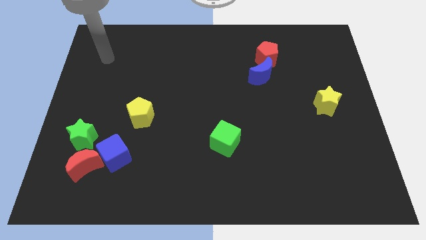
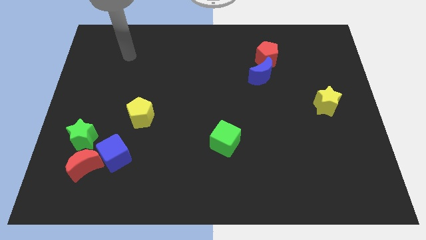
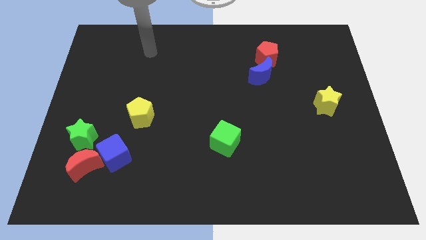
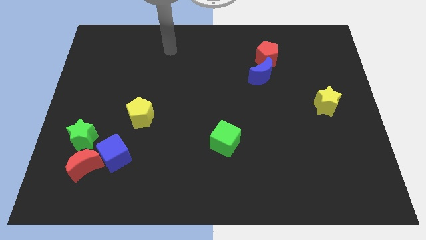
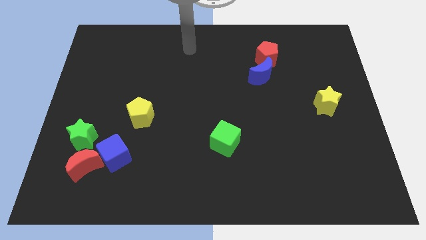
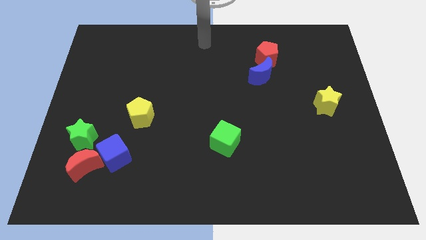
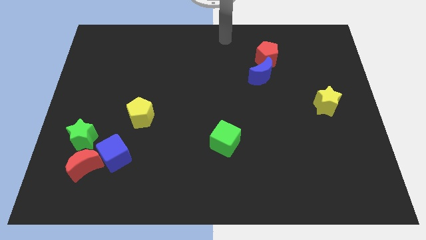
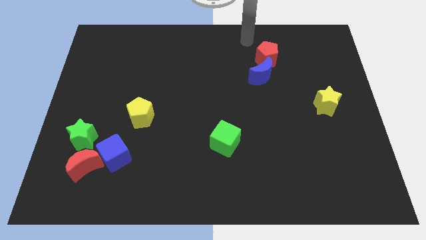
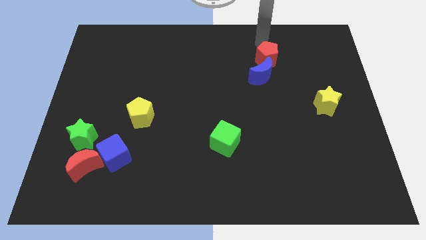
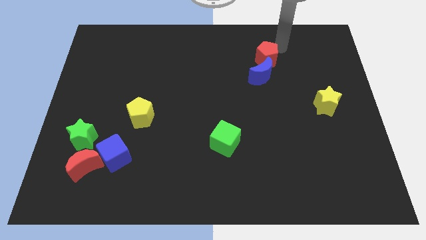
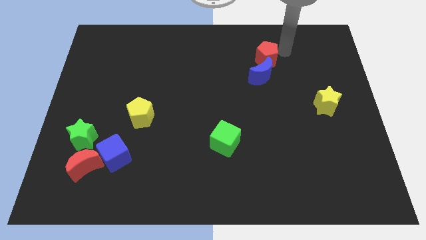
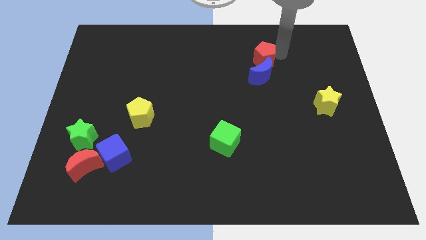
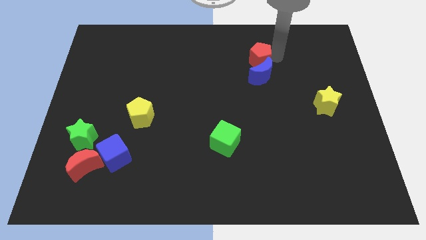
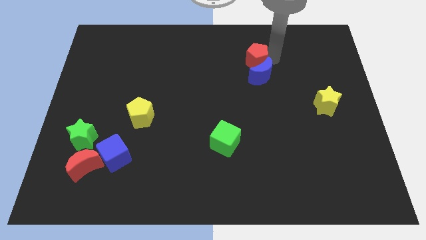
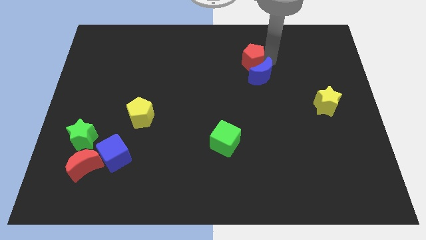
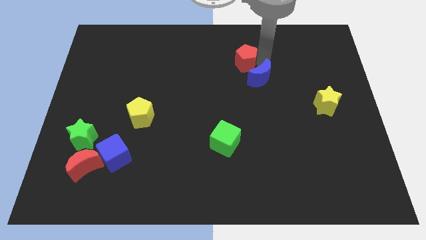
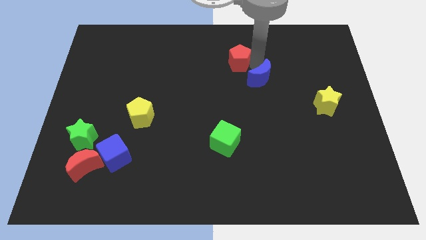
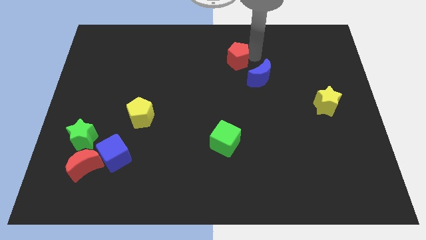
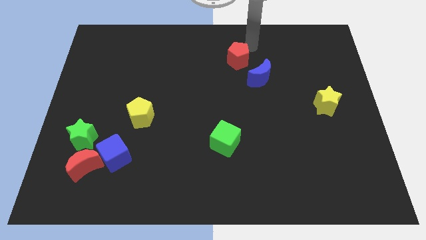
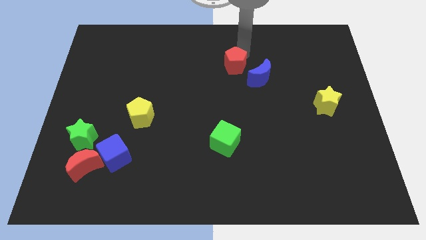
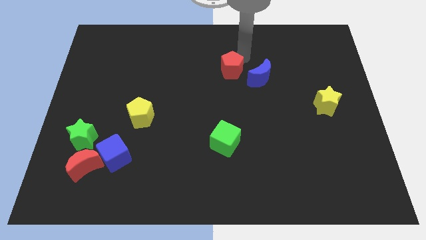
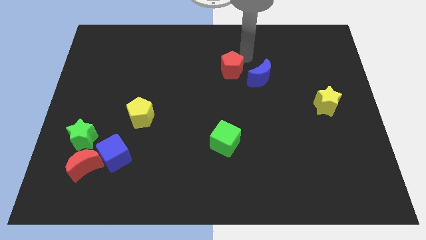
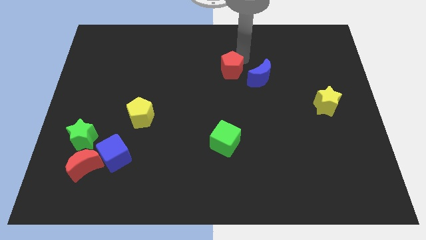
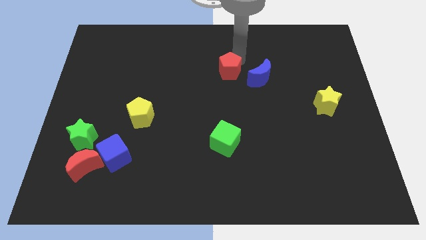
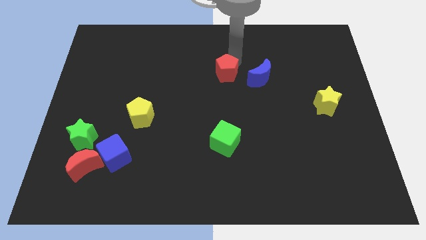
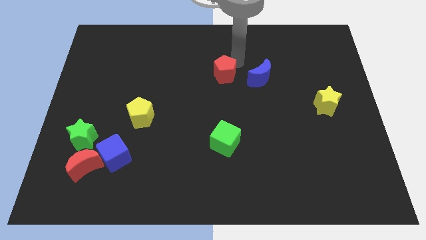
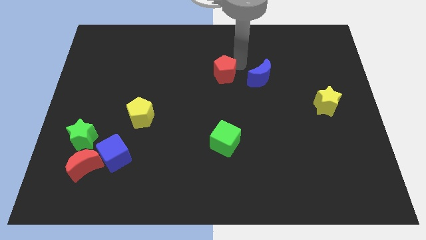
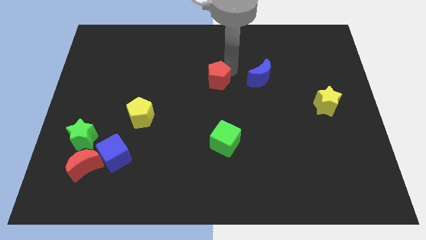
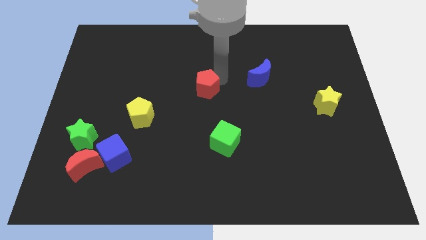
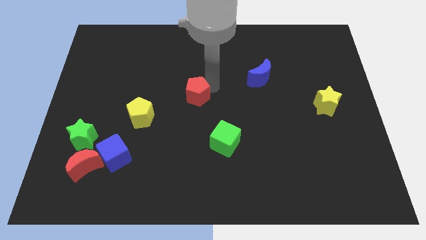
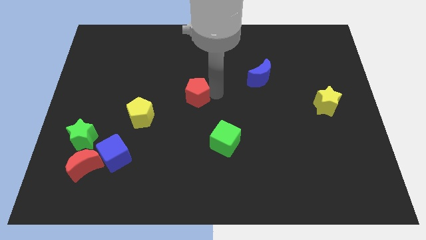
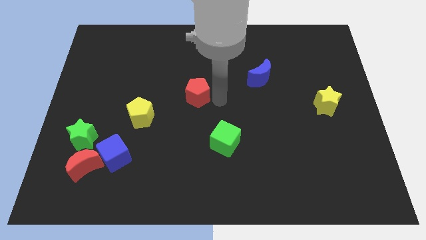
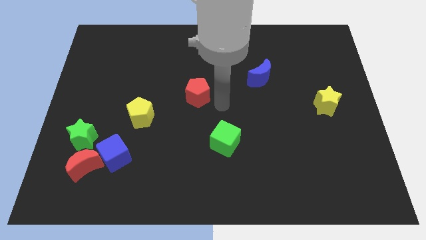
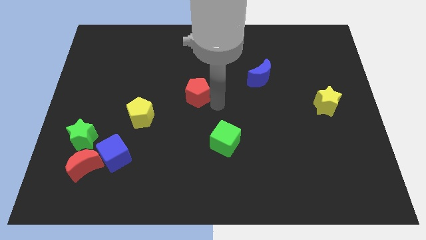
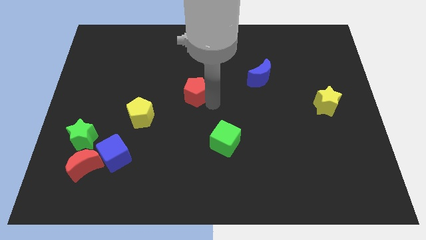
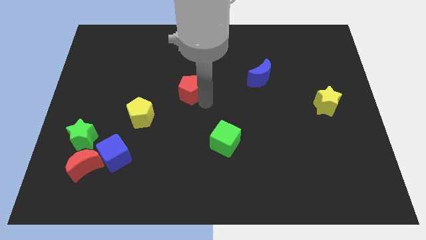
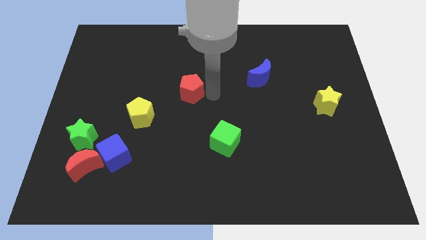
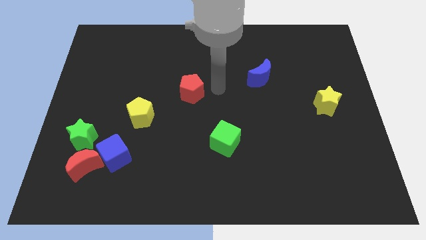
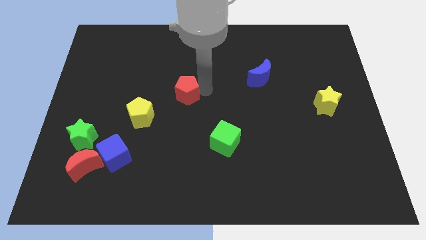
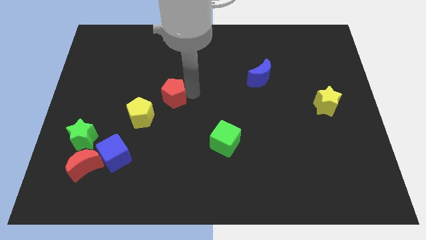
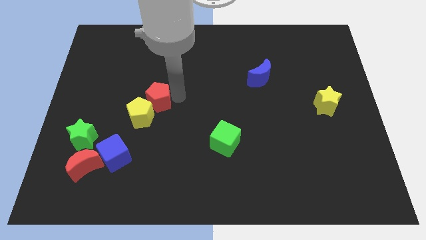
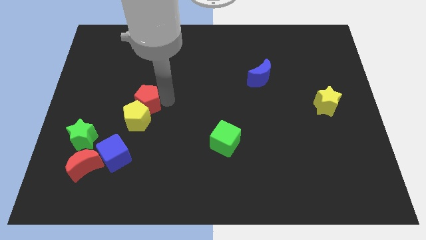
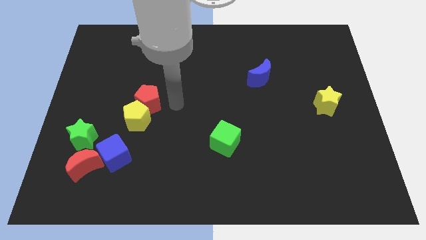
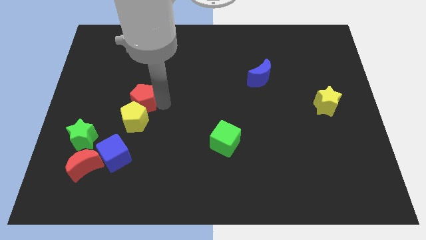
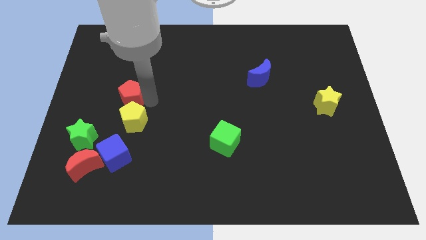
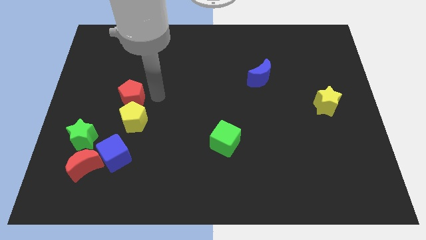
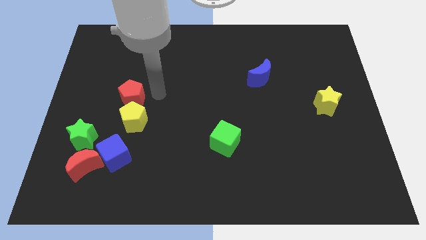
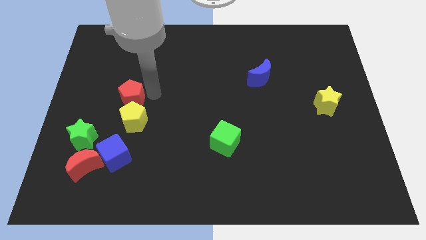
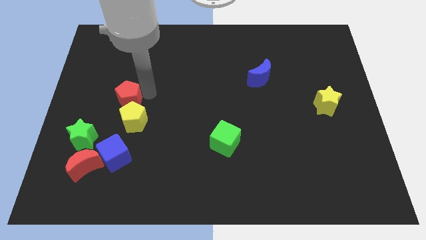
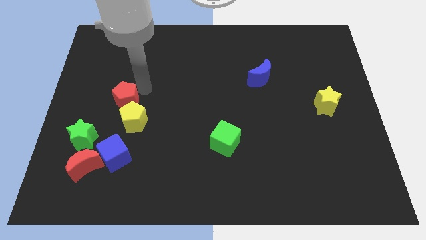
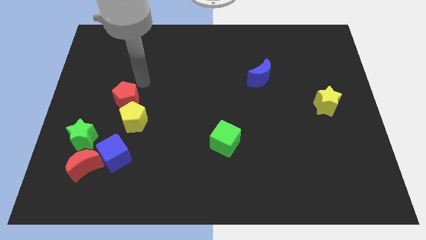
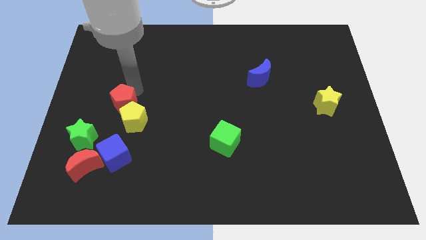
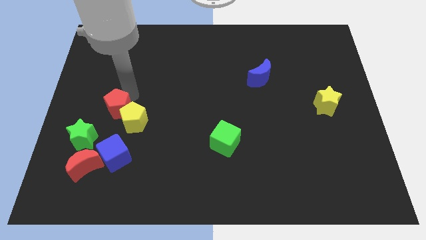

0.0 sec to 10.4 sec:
push the red pentagon to the top right of the green star

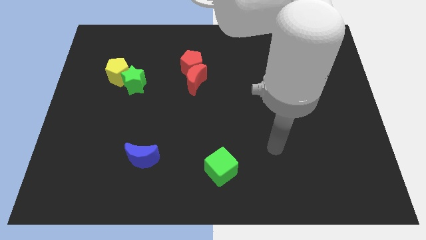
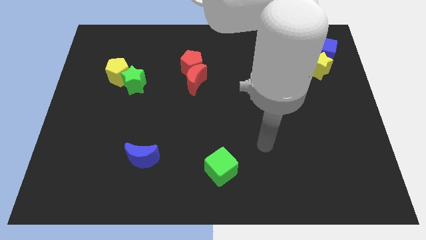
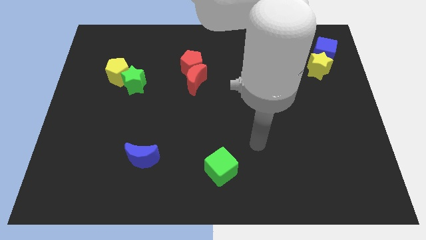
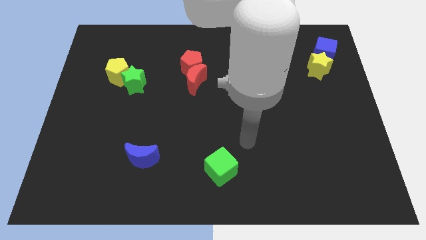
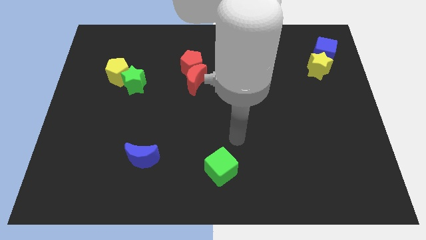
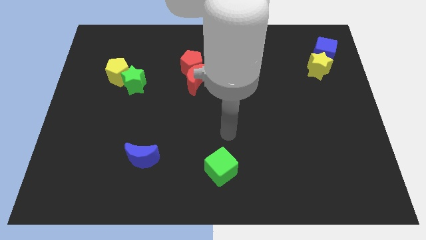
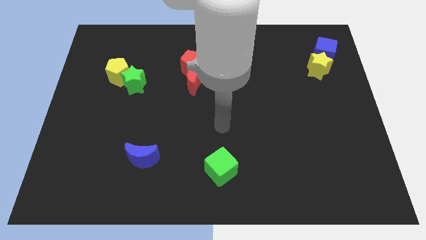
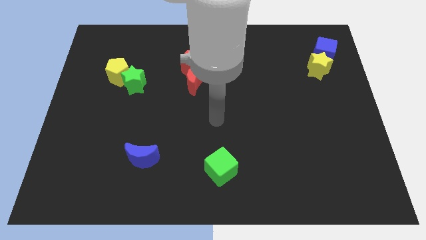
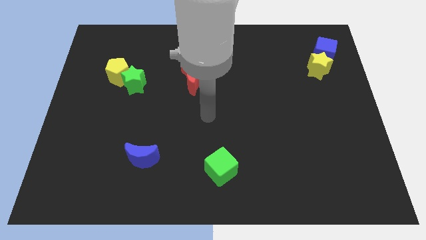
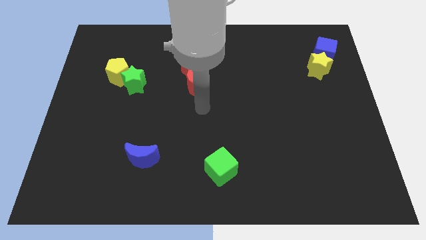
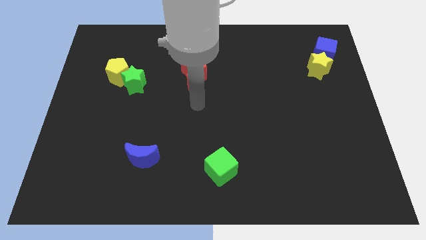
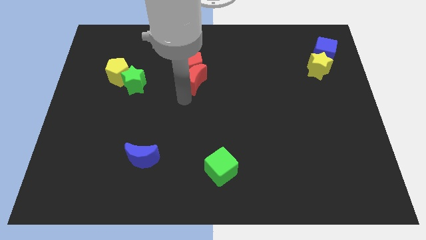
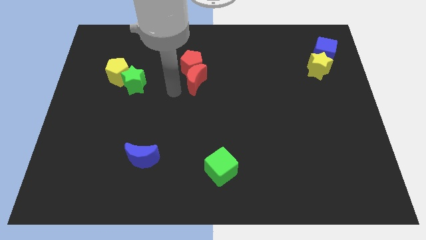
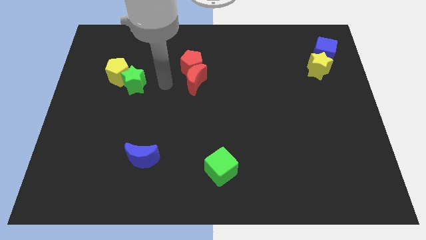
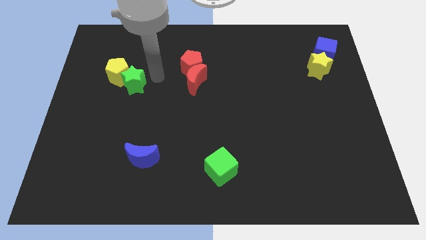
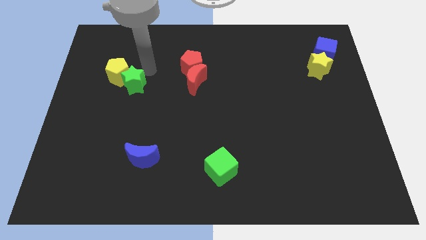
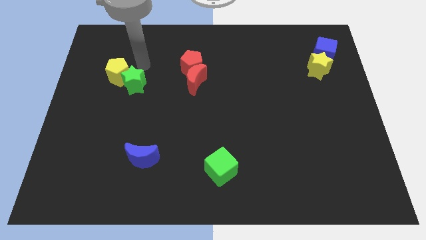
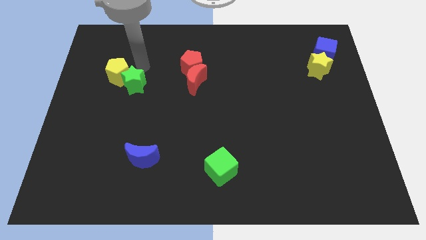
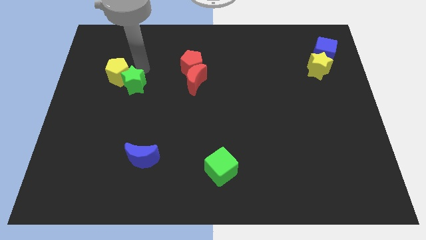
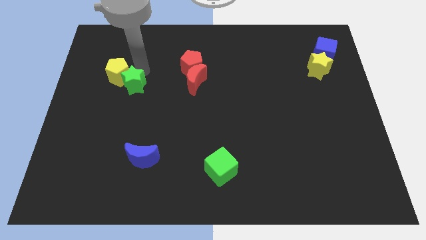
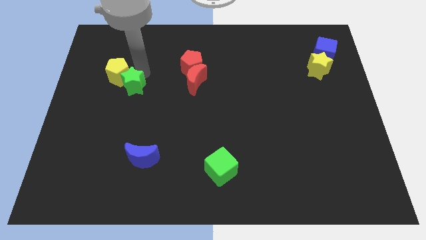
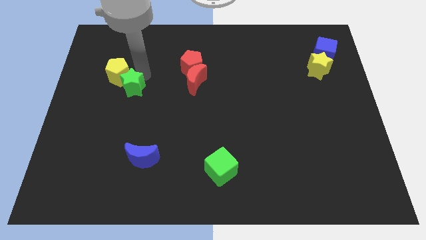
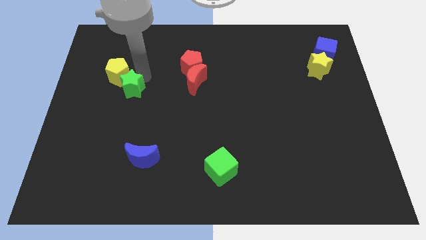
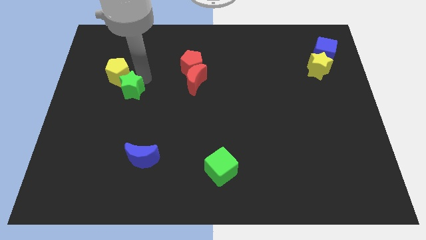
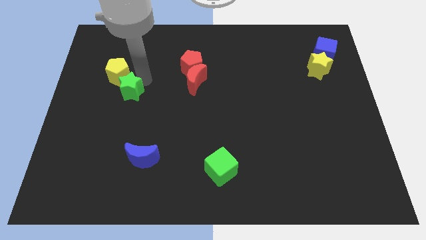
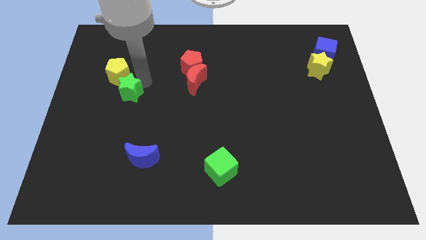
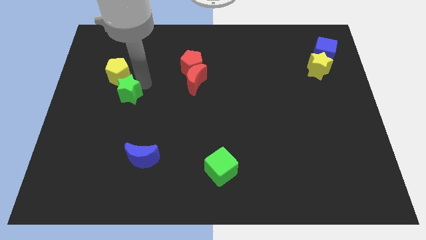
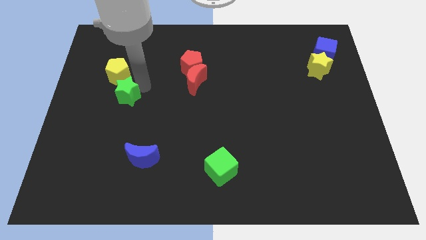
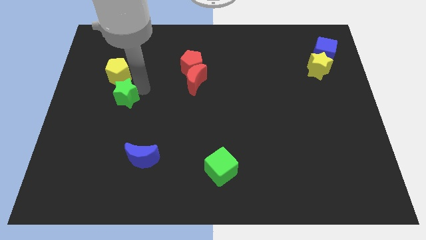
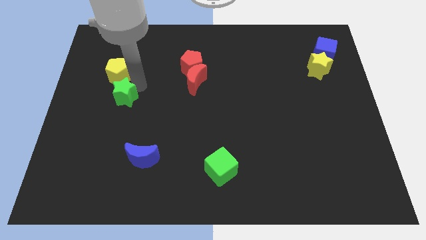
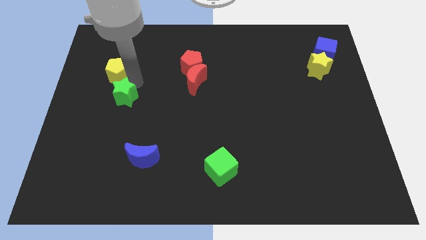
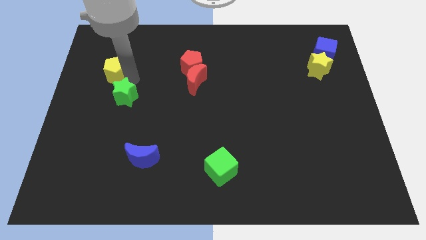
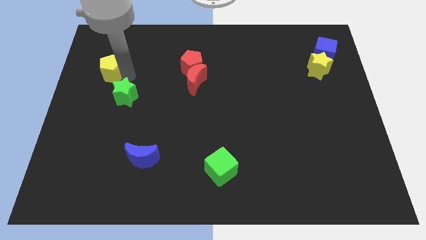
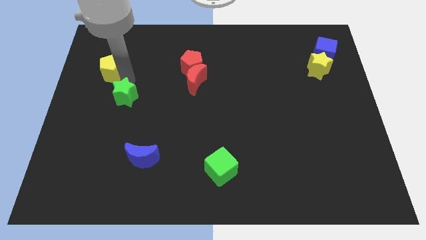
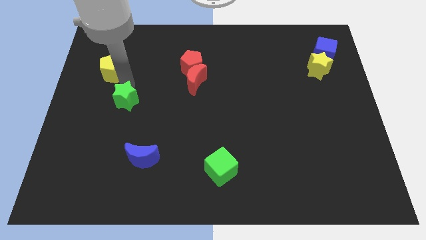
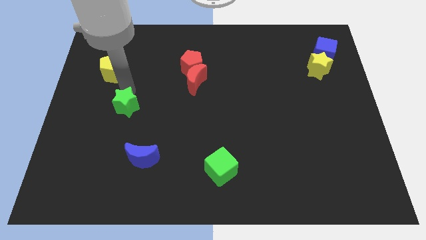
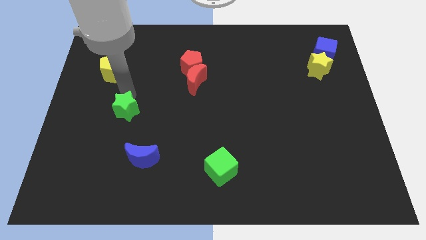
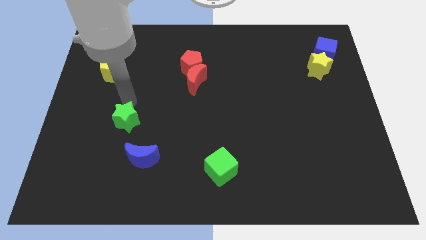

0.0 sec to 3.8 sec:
slide the green star to the top left of the blue moon
